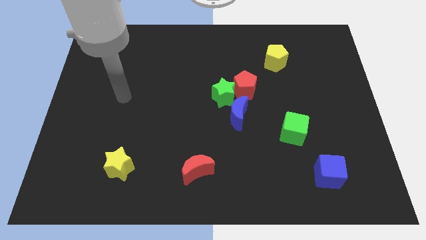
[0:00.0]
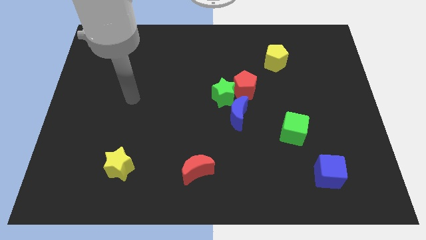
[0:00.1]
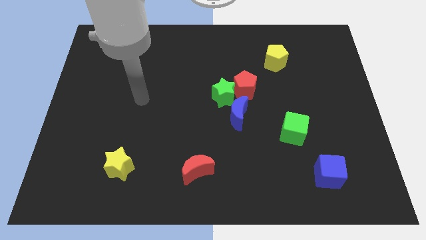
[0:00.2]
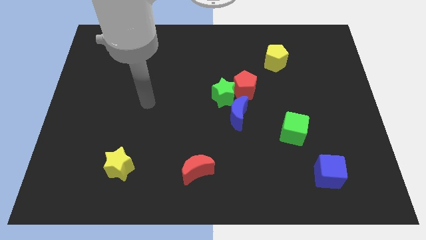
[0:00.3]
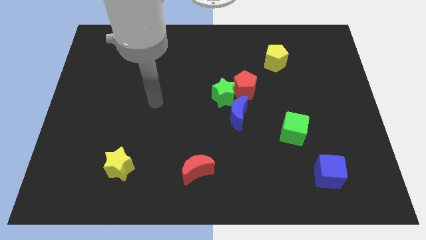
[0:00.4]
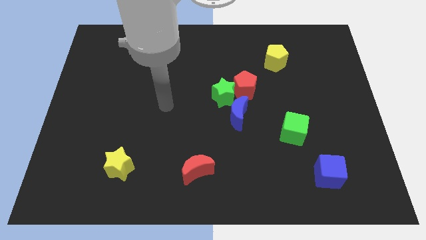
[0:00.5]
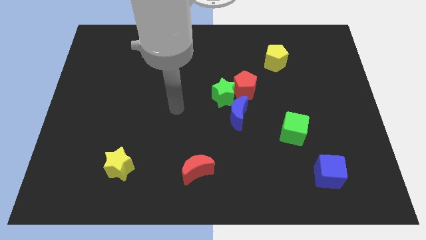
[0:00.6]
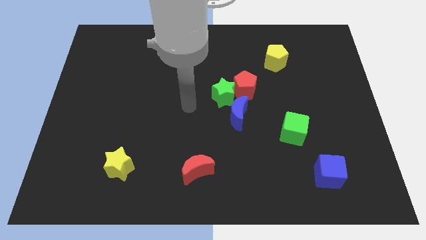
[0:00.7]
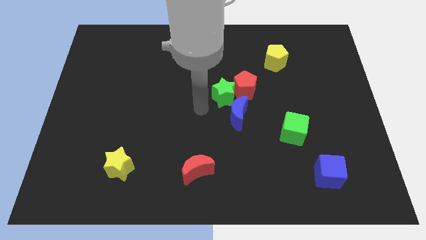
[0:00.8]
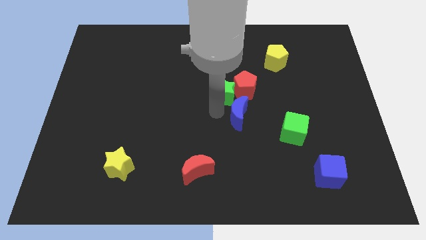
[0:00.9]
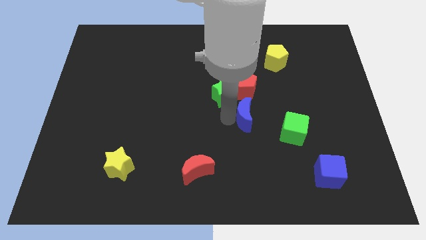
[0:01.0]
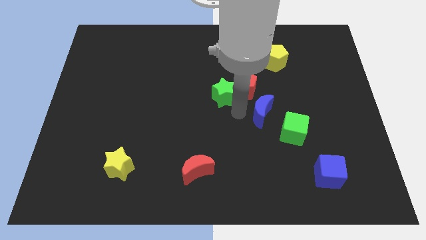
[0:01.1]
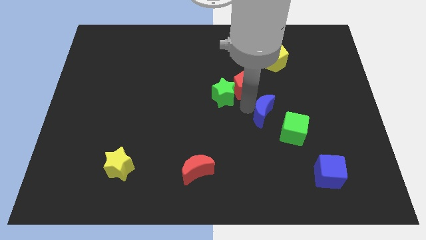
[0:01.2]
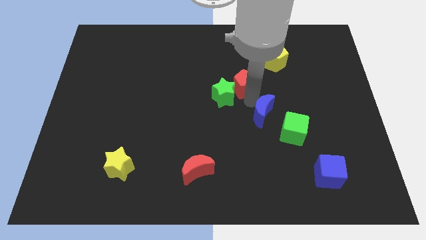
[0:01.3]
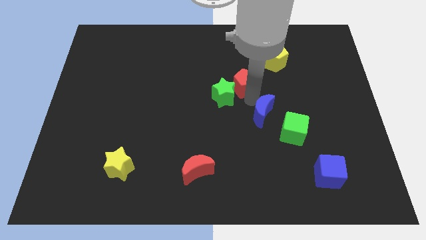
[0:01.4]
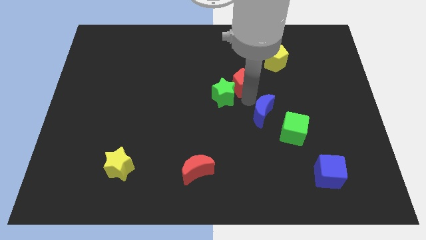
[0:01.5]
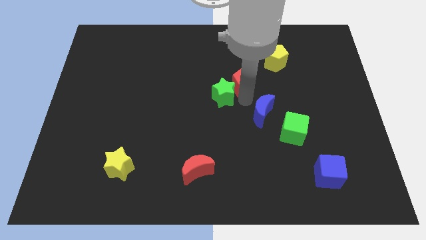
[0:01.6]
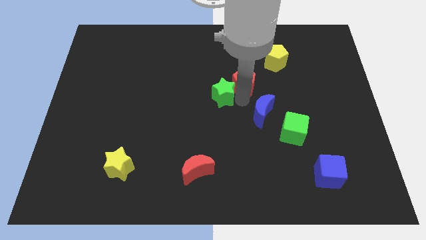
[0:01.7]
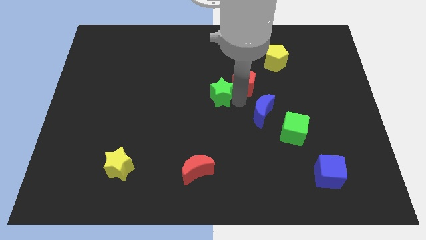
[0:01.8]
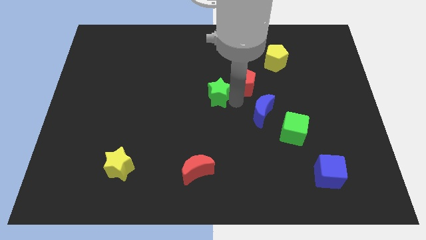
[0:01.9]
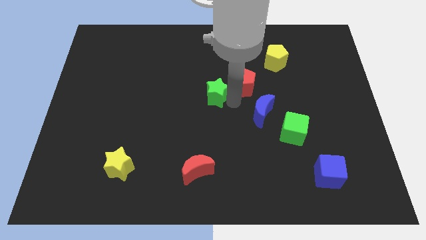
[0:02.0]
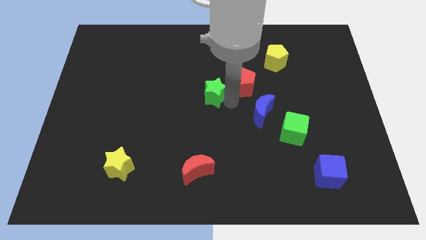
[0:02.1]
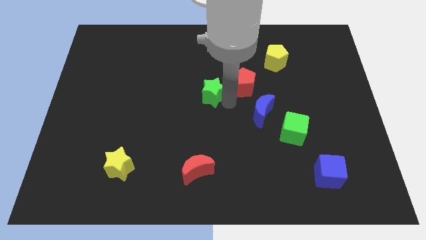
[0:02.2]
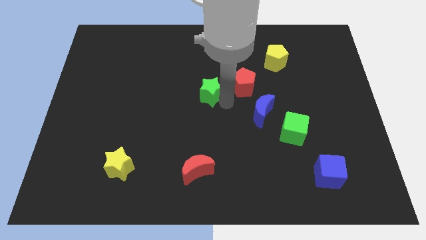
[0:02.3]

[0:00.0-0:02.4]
move the green star away from the red pentagon and blue moon

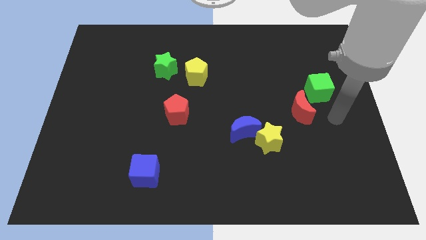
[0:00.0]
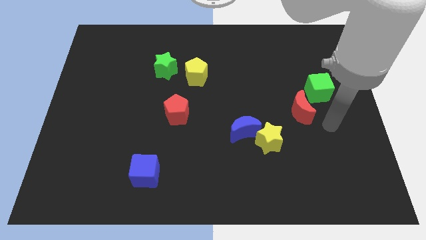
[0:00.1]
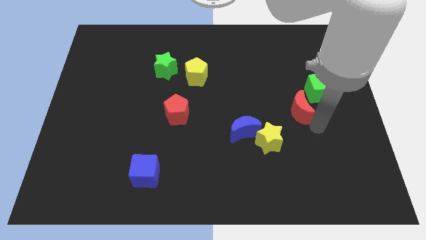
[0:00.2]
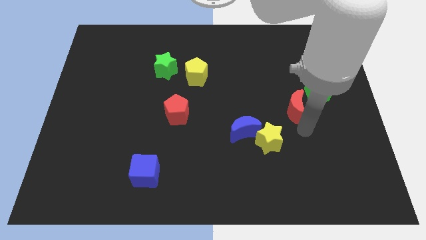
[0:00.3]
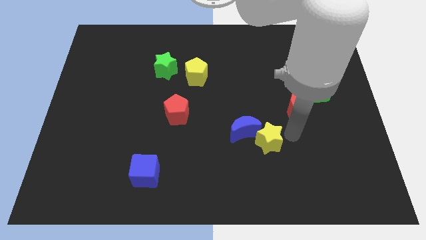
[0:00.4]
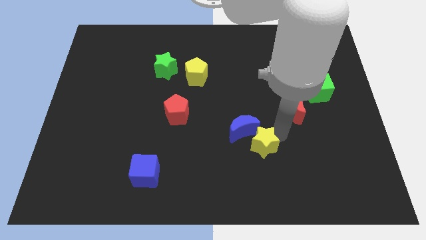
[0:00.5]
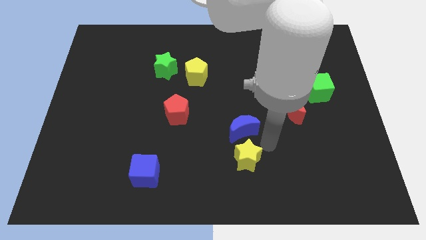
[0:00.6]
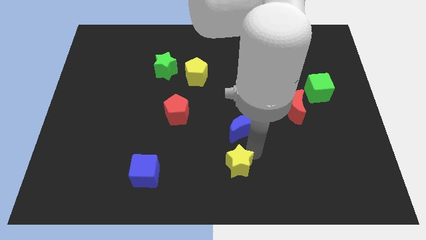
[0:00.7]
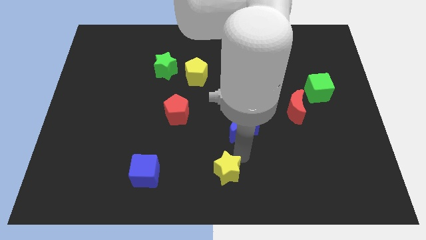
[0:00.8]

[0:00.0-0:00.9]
move the blue moon away from the yellow star

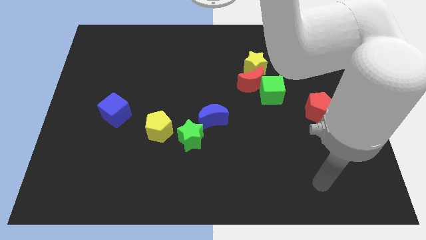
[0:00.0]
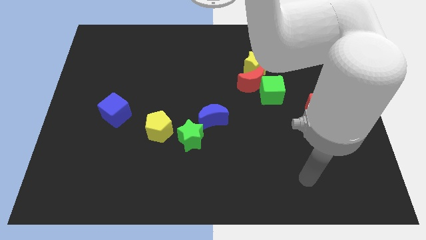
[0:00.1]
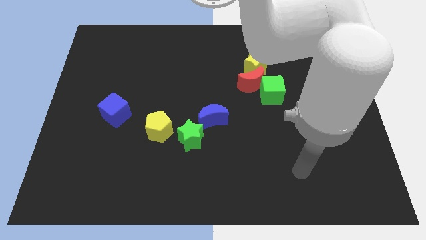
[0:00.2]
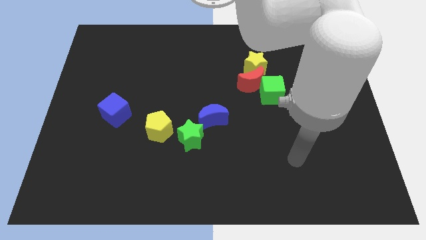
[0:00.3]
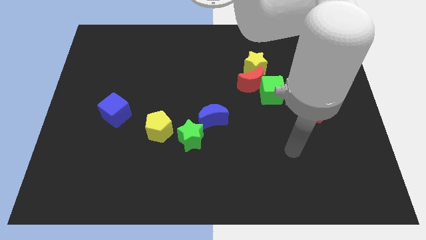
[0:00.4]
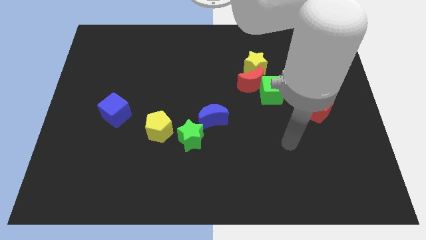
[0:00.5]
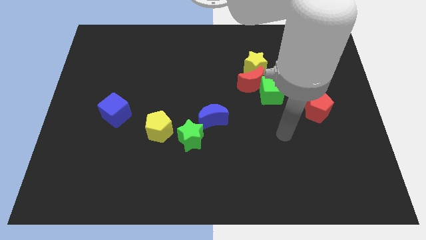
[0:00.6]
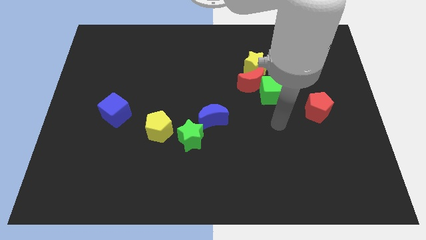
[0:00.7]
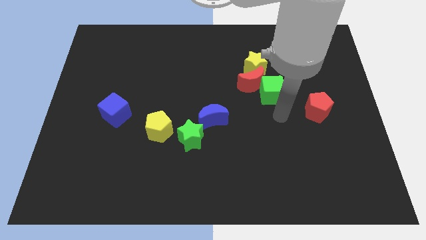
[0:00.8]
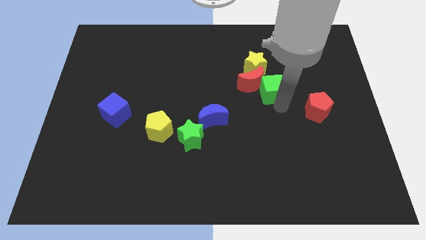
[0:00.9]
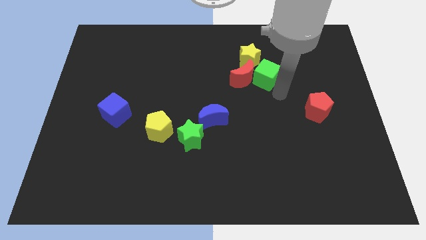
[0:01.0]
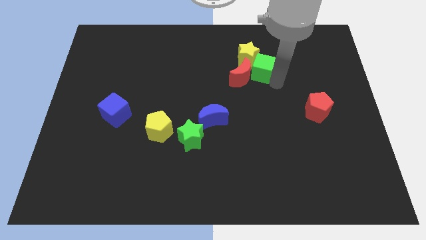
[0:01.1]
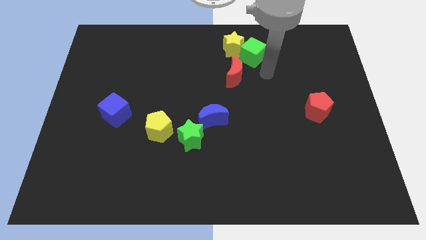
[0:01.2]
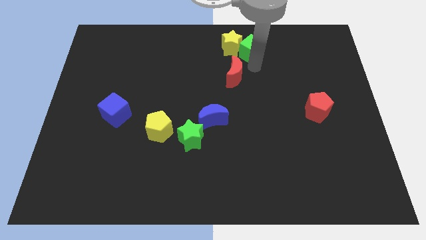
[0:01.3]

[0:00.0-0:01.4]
move the red moon away from the green cube and yellow star

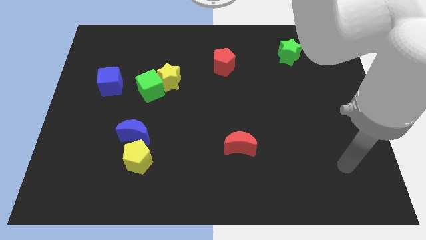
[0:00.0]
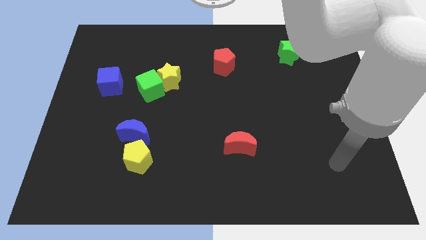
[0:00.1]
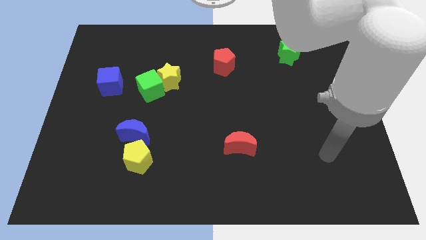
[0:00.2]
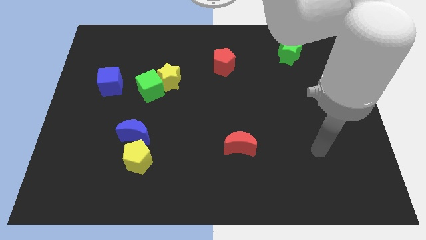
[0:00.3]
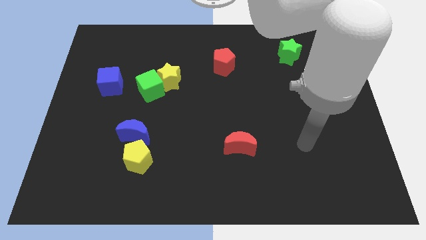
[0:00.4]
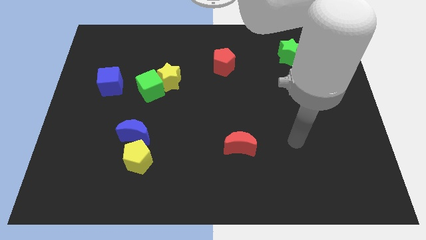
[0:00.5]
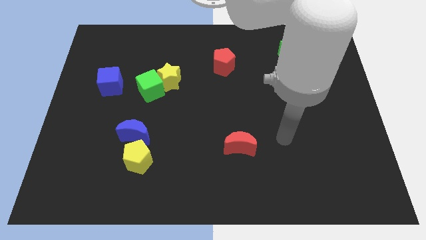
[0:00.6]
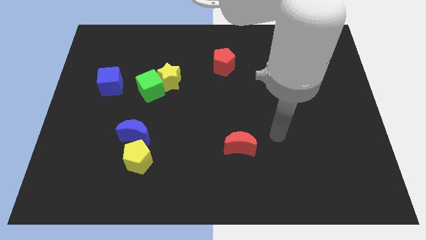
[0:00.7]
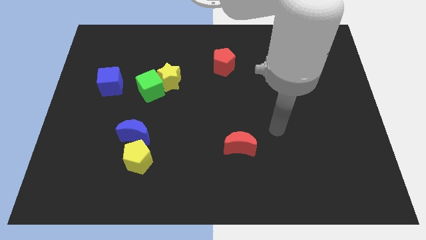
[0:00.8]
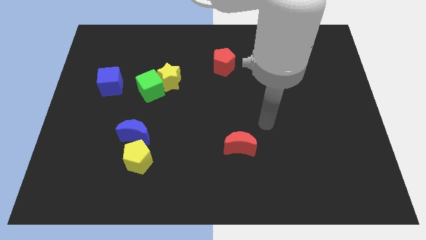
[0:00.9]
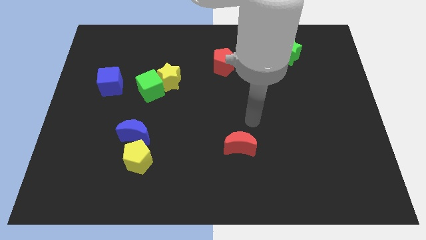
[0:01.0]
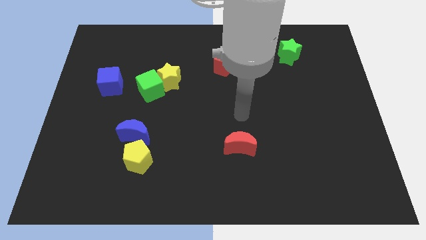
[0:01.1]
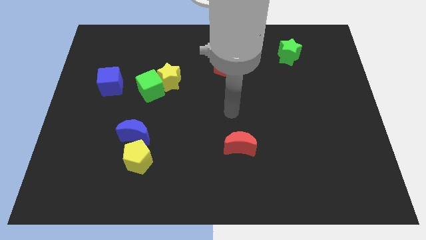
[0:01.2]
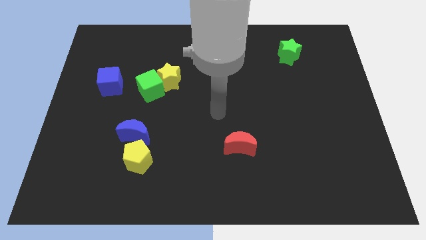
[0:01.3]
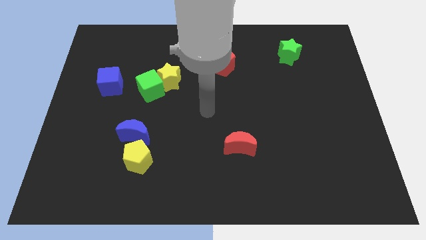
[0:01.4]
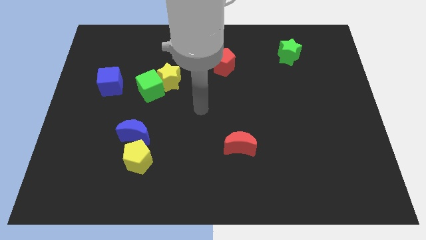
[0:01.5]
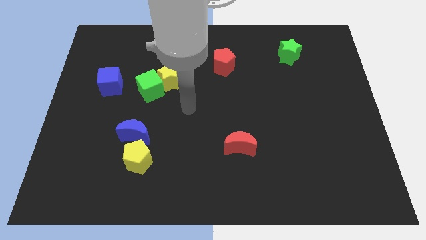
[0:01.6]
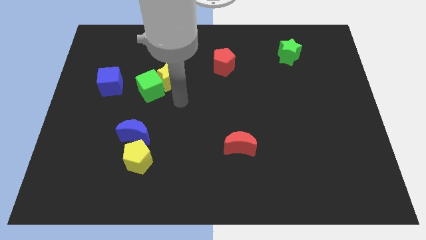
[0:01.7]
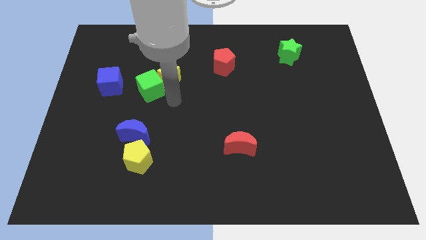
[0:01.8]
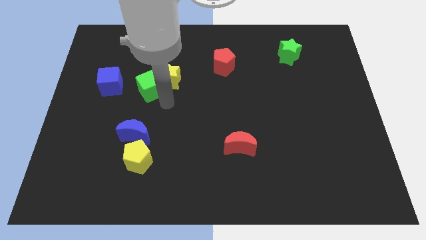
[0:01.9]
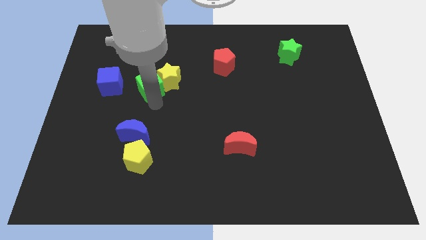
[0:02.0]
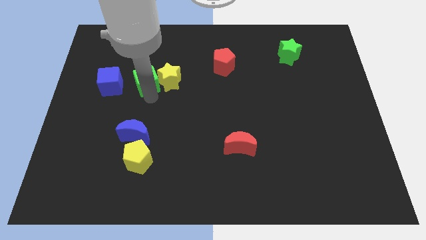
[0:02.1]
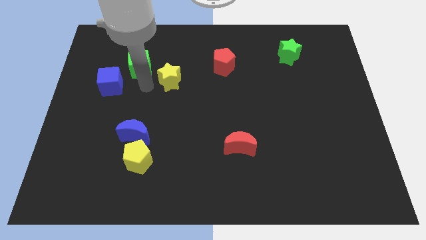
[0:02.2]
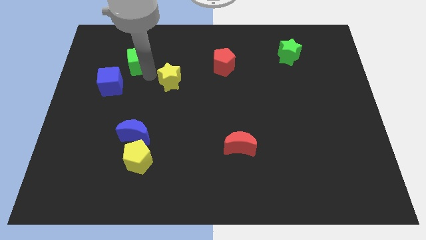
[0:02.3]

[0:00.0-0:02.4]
pull the yellow star apart from the green cube

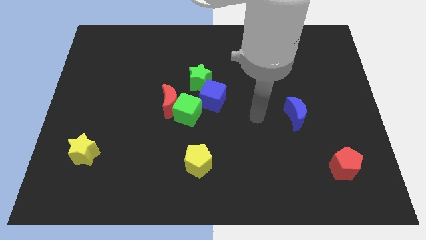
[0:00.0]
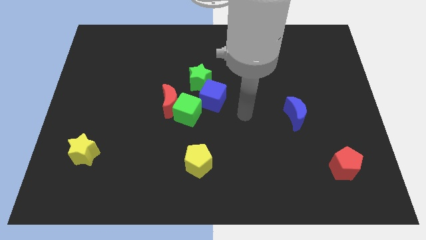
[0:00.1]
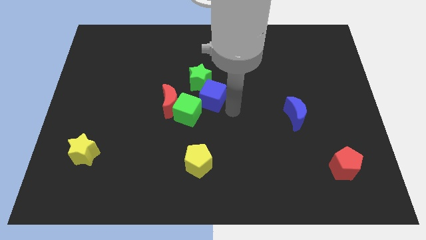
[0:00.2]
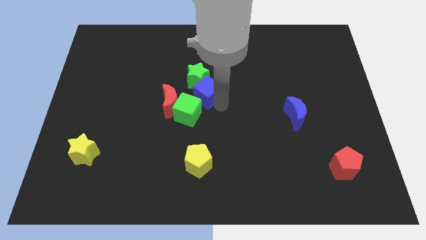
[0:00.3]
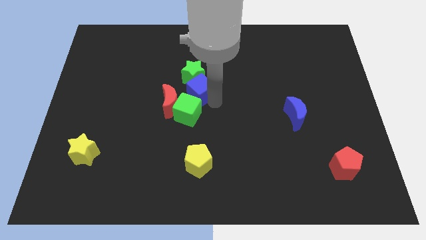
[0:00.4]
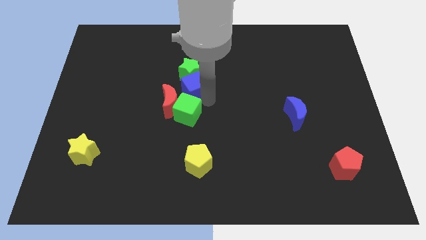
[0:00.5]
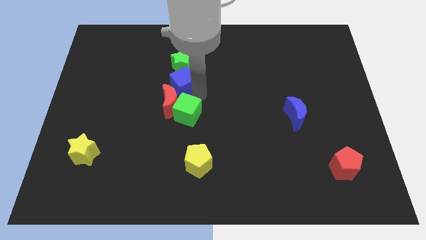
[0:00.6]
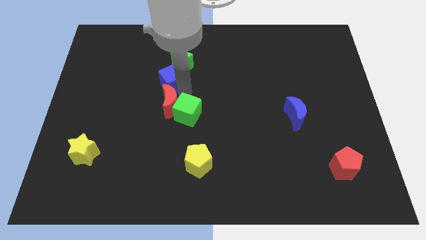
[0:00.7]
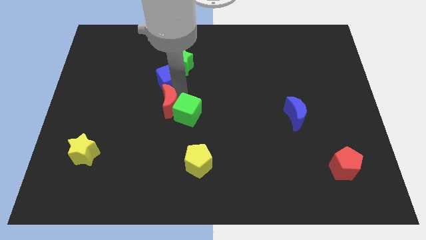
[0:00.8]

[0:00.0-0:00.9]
pull the green cube apart from the red moon, blue cube, and green star

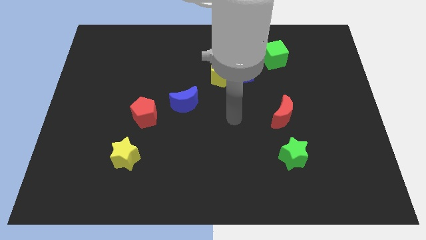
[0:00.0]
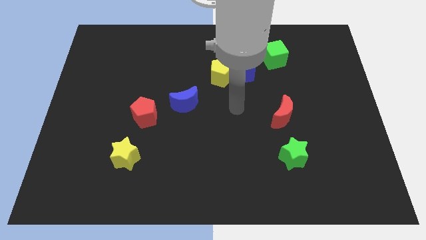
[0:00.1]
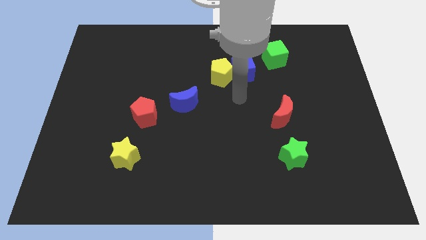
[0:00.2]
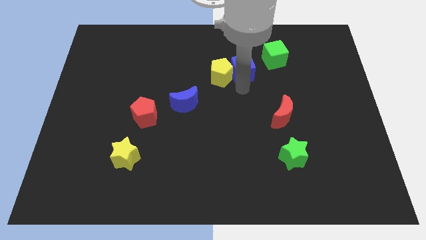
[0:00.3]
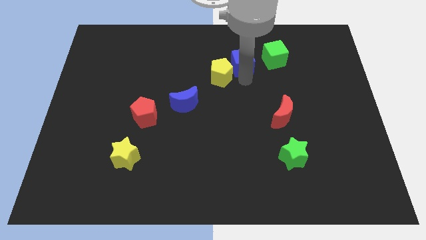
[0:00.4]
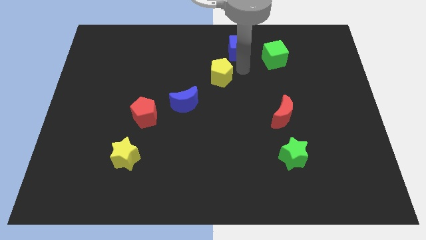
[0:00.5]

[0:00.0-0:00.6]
move the yellow pentagon away from the blue cube

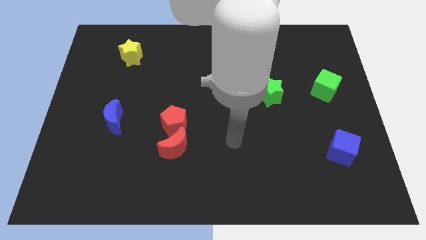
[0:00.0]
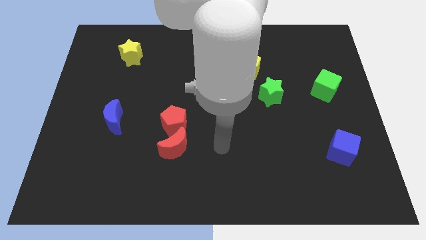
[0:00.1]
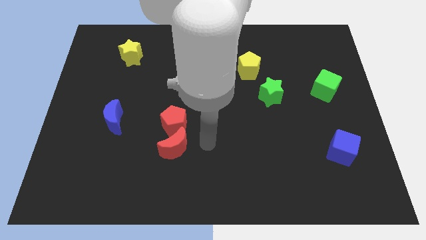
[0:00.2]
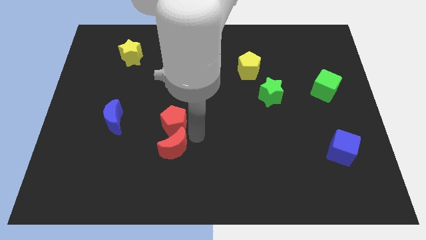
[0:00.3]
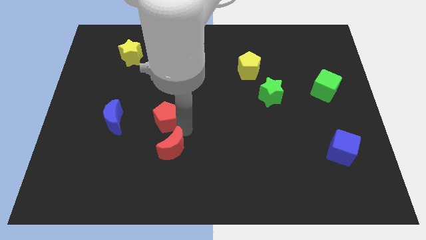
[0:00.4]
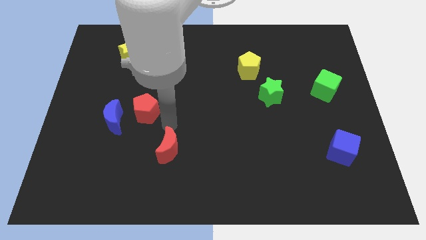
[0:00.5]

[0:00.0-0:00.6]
pull the red moon apart from the red pentagon

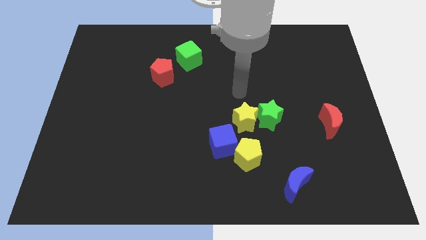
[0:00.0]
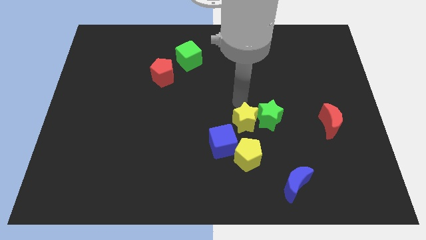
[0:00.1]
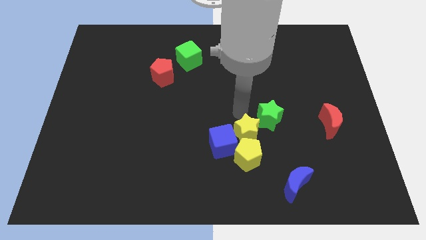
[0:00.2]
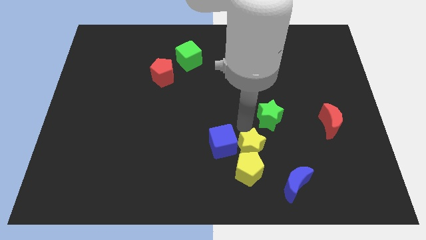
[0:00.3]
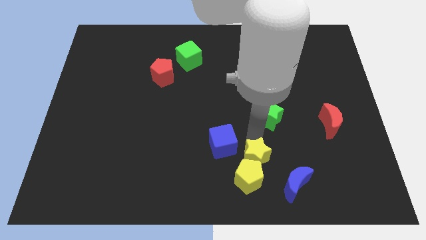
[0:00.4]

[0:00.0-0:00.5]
separate the green star from the yellow star
